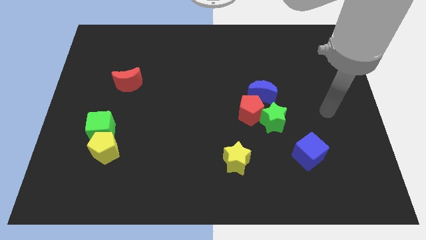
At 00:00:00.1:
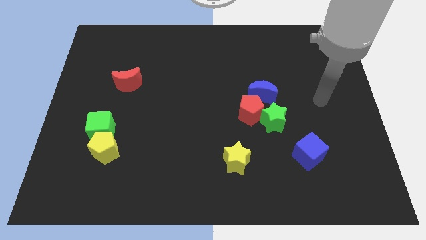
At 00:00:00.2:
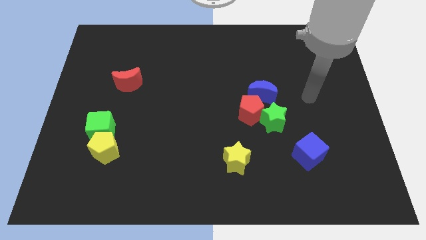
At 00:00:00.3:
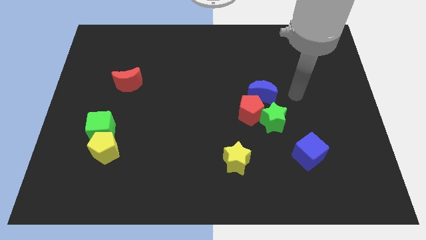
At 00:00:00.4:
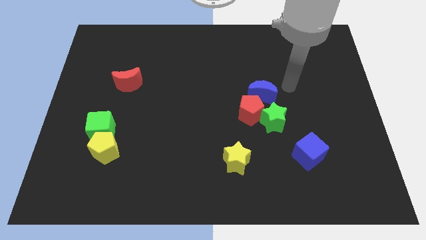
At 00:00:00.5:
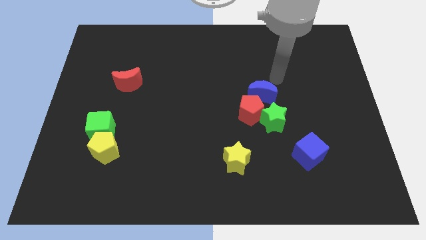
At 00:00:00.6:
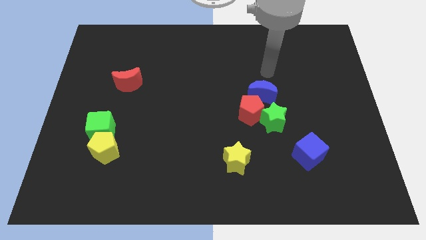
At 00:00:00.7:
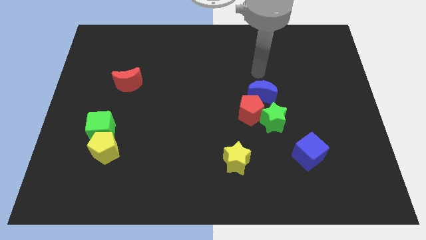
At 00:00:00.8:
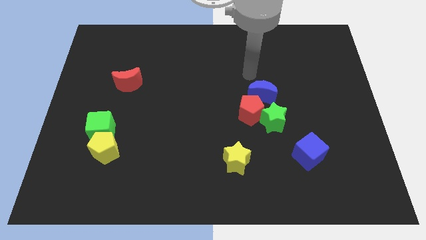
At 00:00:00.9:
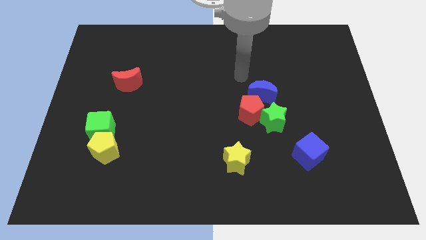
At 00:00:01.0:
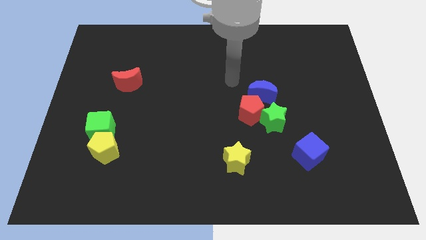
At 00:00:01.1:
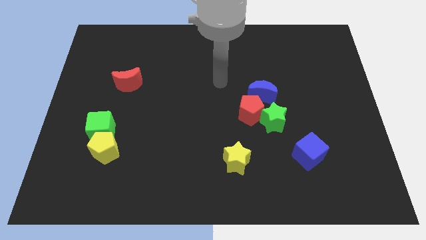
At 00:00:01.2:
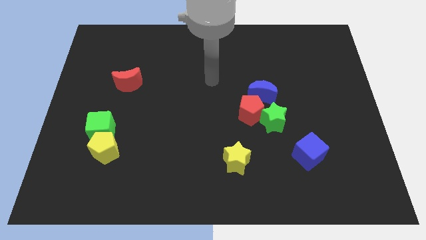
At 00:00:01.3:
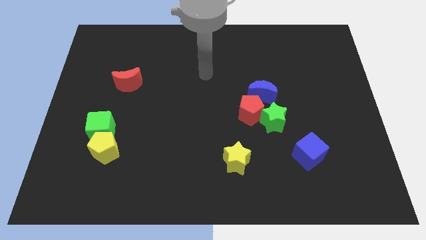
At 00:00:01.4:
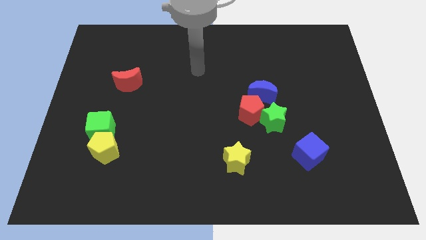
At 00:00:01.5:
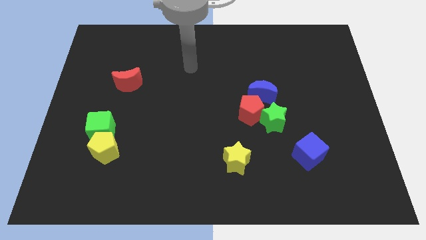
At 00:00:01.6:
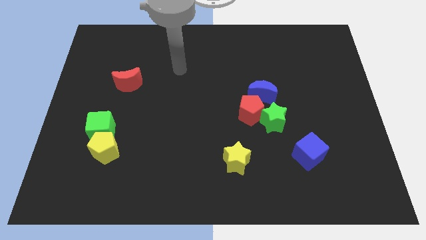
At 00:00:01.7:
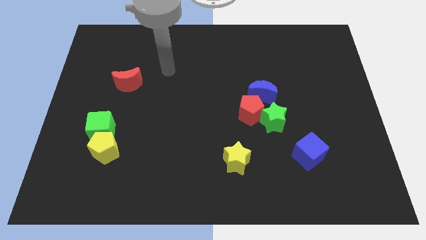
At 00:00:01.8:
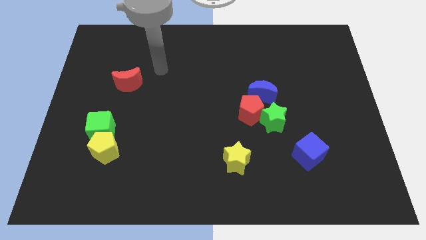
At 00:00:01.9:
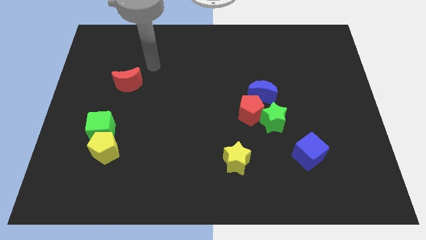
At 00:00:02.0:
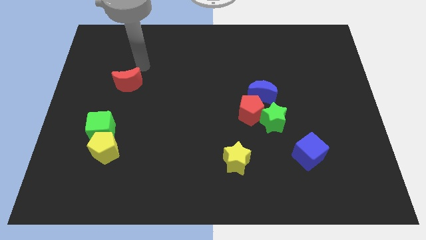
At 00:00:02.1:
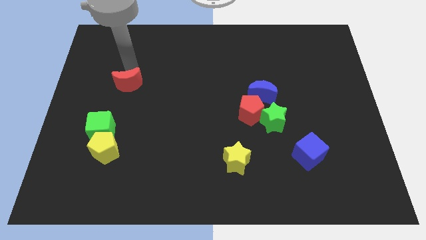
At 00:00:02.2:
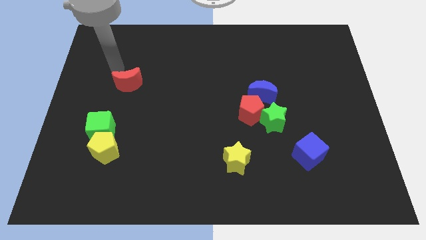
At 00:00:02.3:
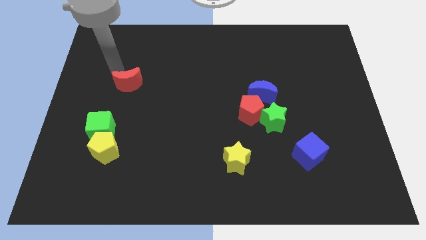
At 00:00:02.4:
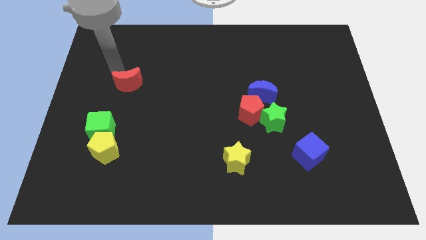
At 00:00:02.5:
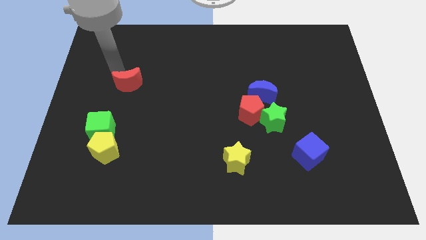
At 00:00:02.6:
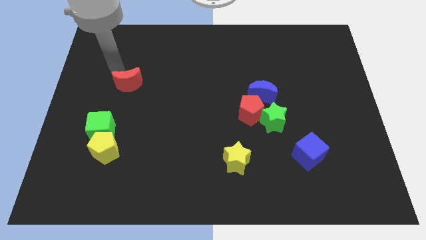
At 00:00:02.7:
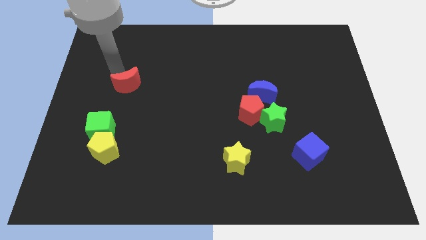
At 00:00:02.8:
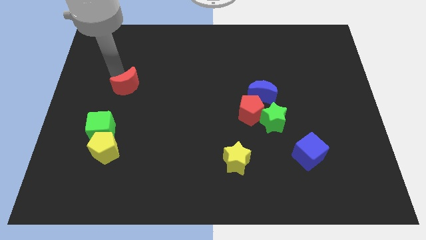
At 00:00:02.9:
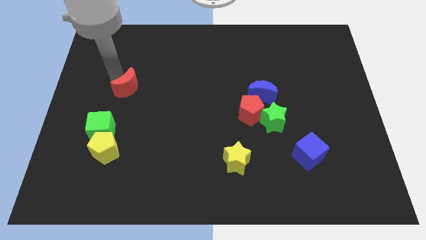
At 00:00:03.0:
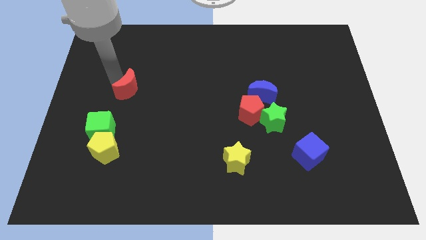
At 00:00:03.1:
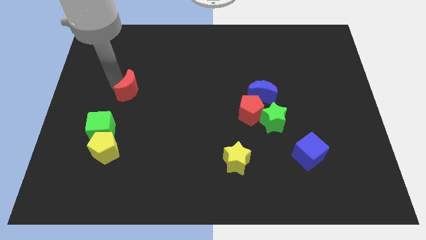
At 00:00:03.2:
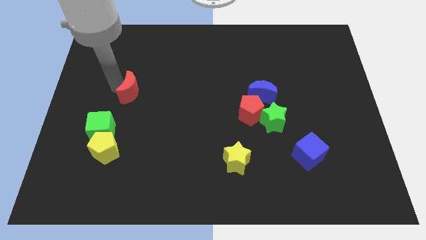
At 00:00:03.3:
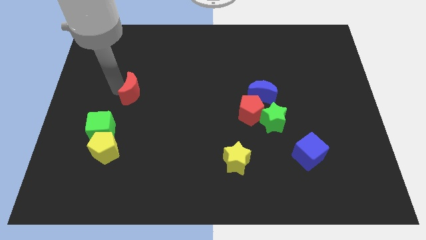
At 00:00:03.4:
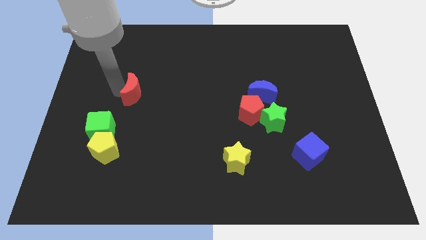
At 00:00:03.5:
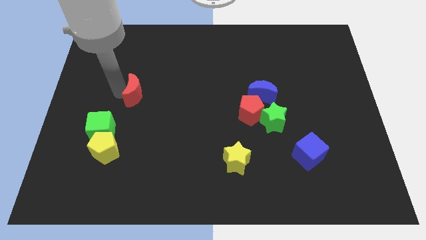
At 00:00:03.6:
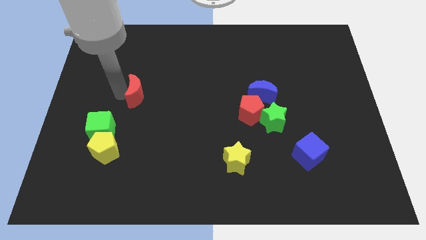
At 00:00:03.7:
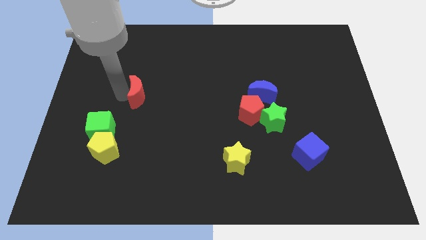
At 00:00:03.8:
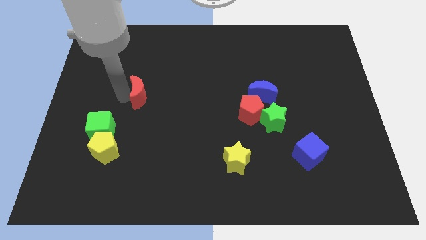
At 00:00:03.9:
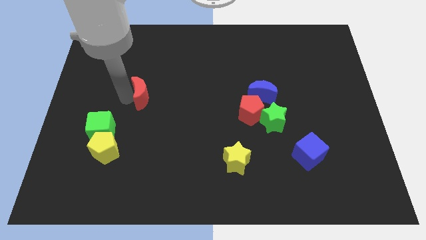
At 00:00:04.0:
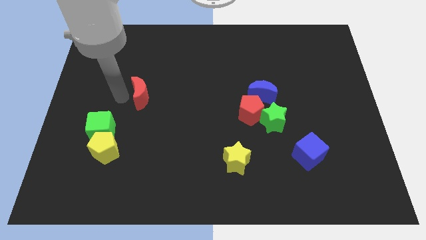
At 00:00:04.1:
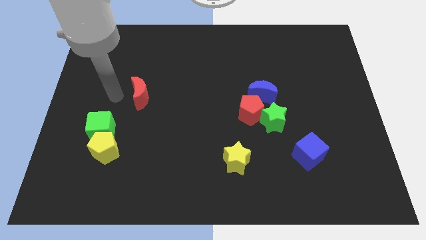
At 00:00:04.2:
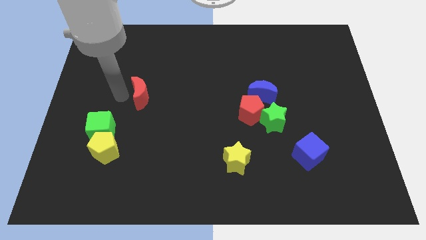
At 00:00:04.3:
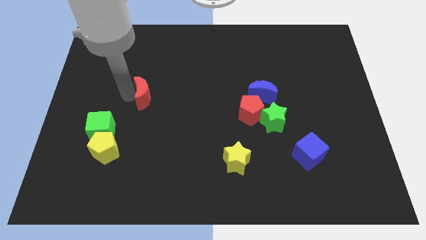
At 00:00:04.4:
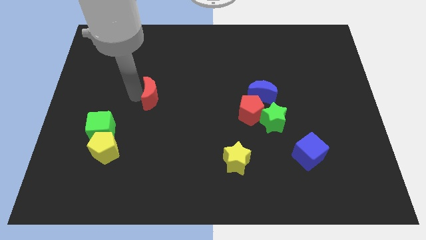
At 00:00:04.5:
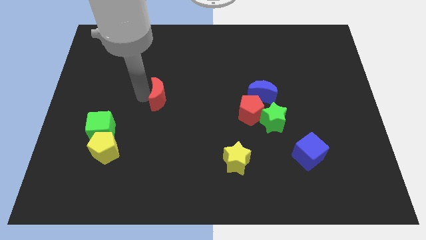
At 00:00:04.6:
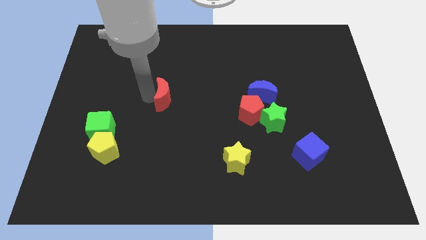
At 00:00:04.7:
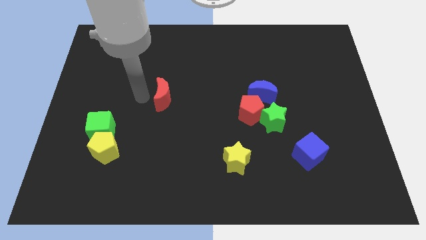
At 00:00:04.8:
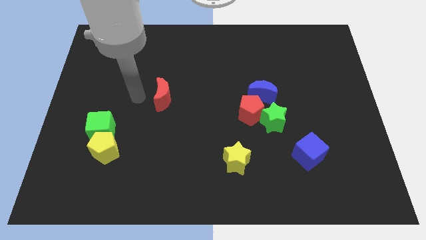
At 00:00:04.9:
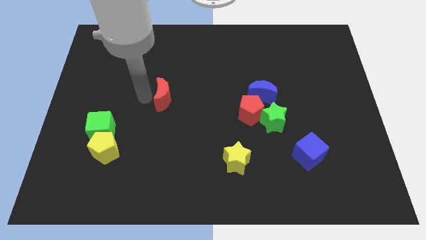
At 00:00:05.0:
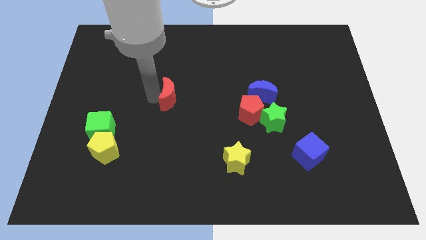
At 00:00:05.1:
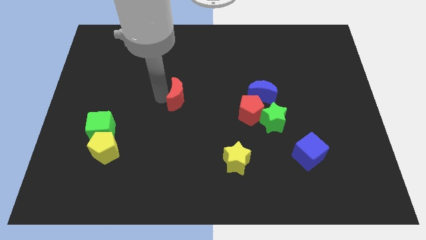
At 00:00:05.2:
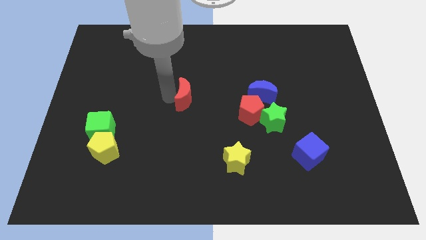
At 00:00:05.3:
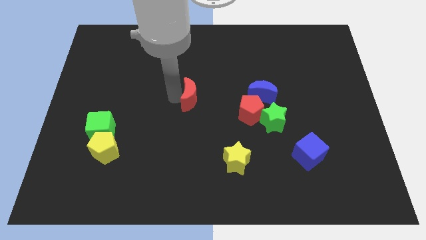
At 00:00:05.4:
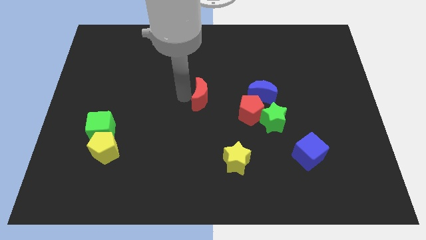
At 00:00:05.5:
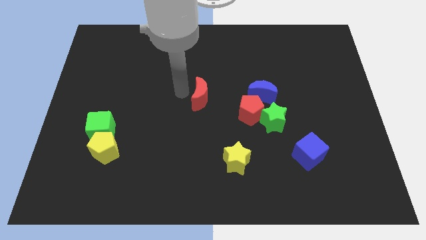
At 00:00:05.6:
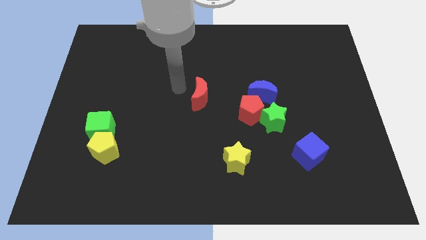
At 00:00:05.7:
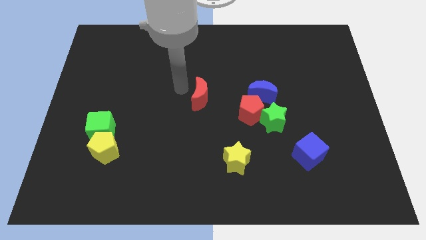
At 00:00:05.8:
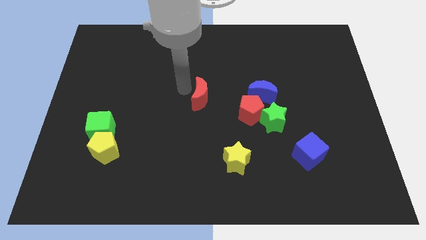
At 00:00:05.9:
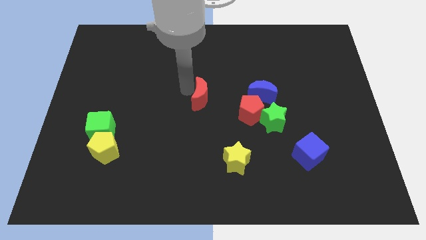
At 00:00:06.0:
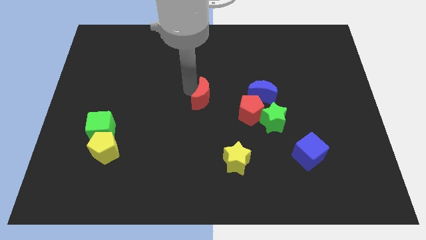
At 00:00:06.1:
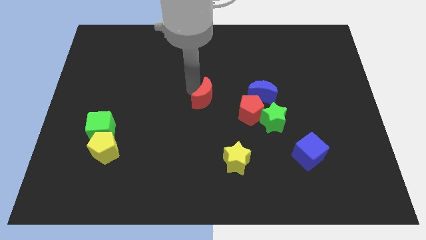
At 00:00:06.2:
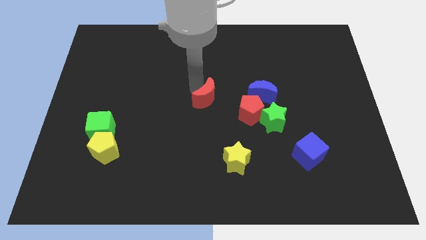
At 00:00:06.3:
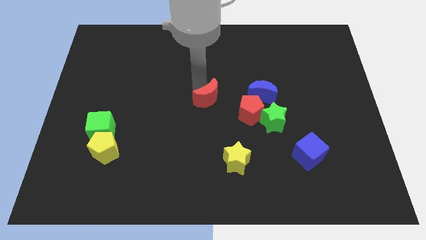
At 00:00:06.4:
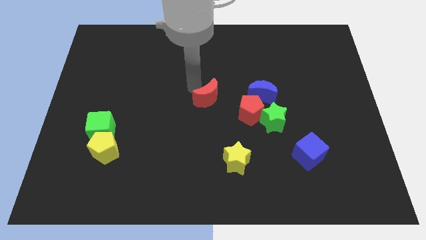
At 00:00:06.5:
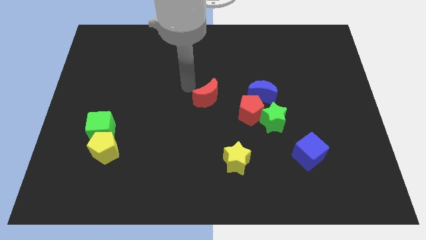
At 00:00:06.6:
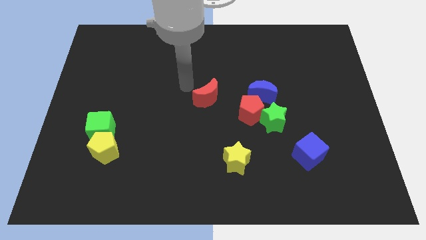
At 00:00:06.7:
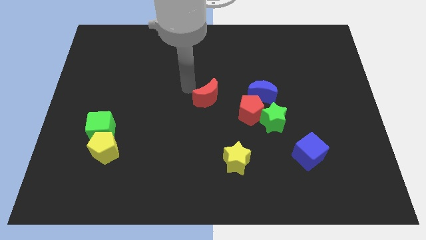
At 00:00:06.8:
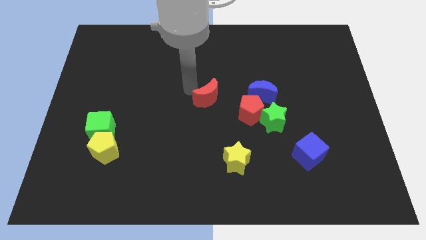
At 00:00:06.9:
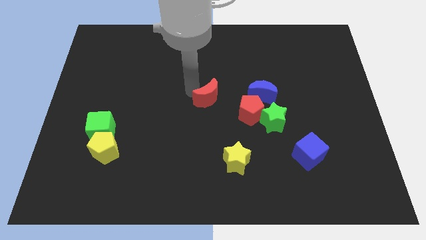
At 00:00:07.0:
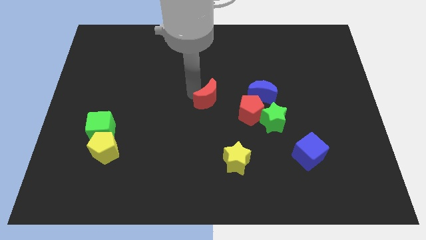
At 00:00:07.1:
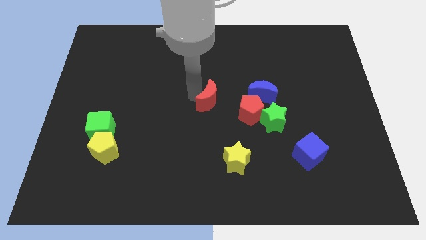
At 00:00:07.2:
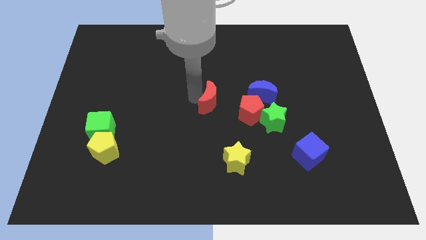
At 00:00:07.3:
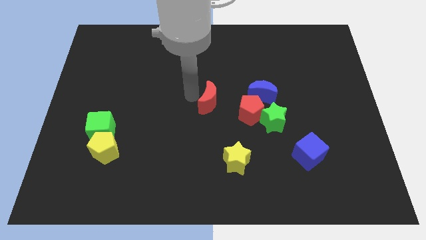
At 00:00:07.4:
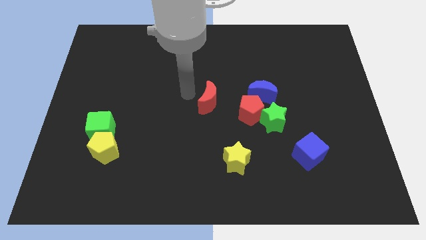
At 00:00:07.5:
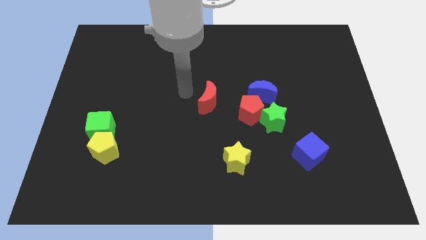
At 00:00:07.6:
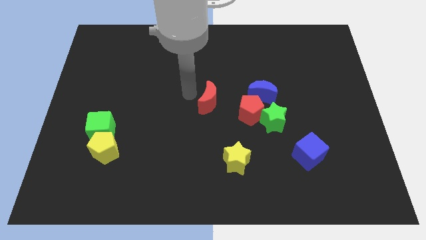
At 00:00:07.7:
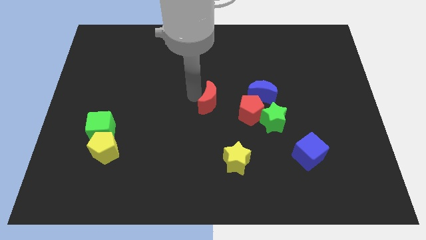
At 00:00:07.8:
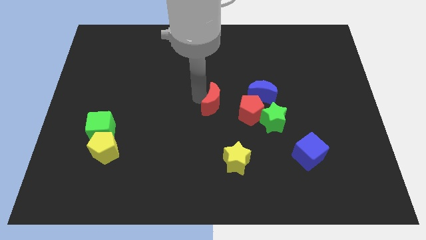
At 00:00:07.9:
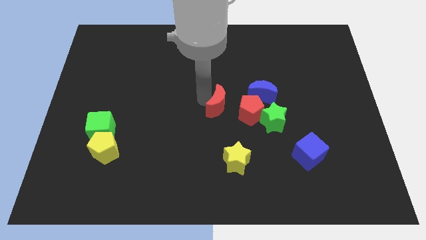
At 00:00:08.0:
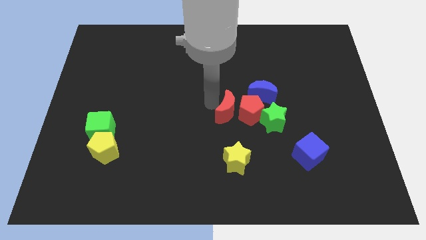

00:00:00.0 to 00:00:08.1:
push the red moon next to the red pentagon
